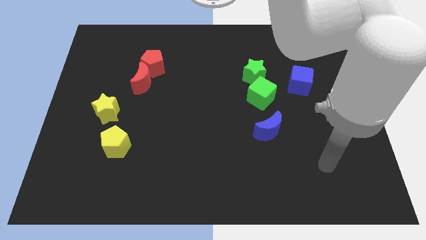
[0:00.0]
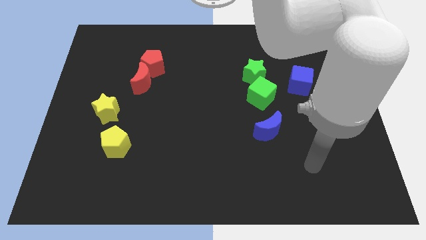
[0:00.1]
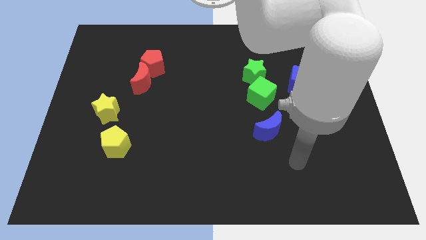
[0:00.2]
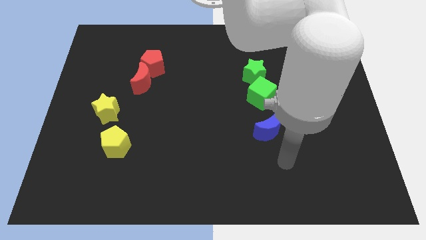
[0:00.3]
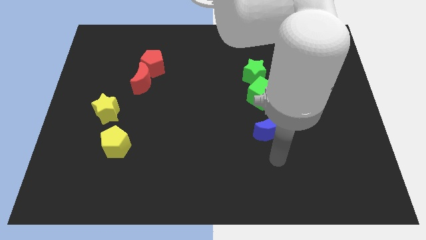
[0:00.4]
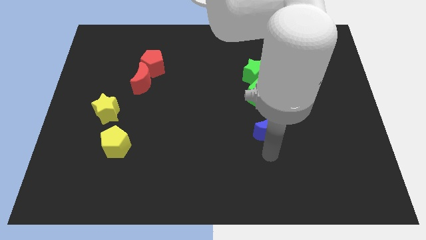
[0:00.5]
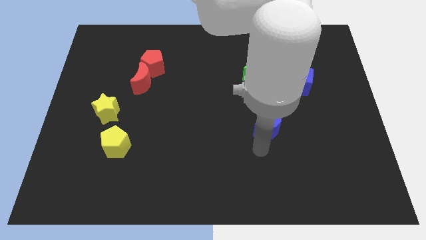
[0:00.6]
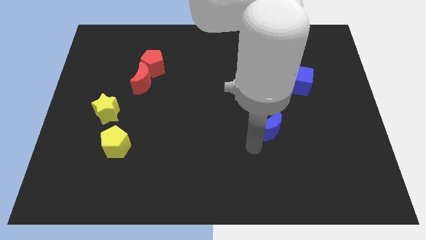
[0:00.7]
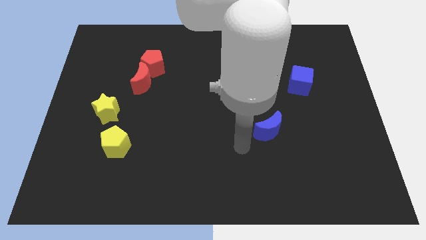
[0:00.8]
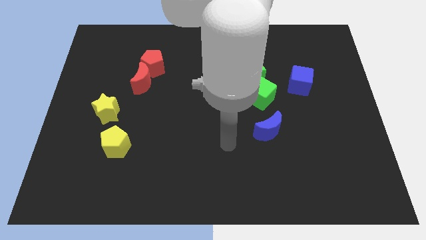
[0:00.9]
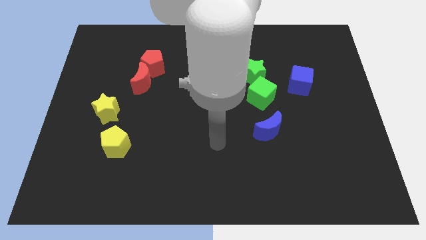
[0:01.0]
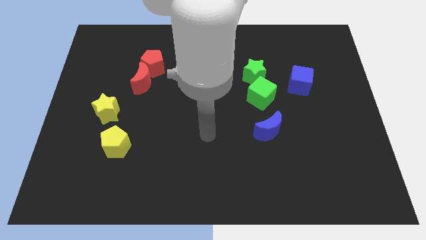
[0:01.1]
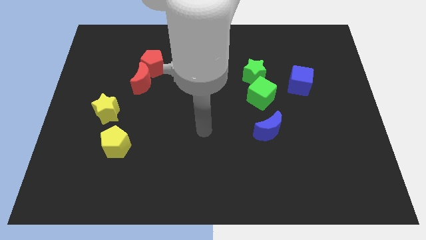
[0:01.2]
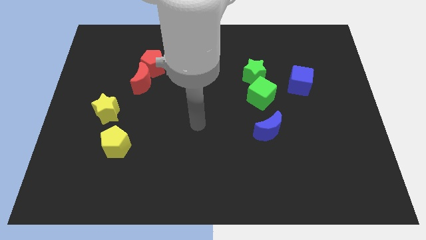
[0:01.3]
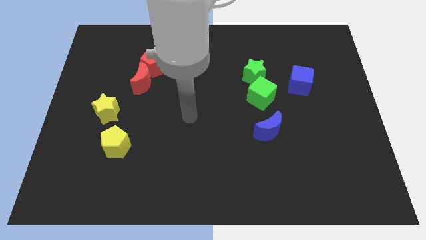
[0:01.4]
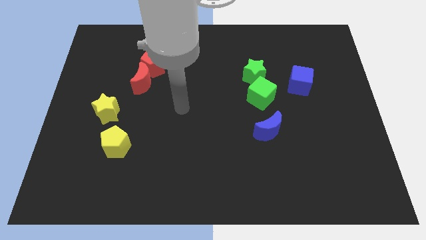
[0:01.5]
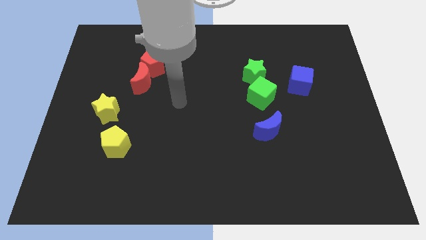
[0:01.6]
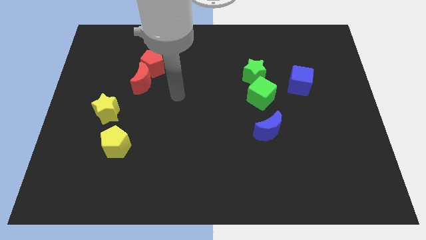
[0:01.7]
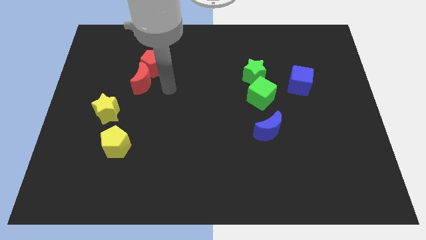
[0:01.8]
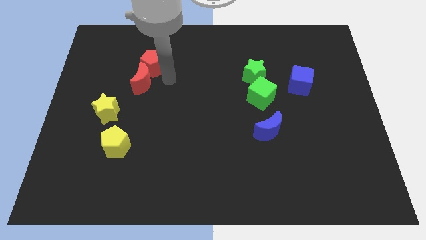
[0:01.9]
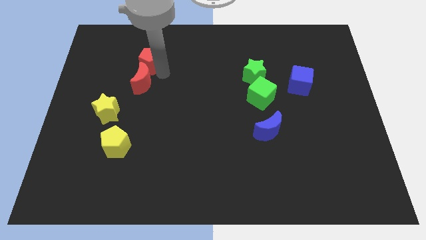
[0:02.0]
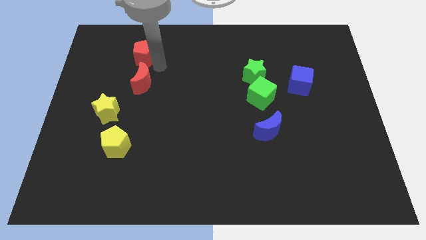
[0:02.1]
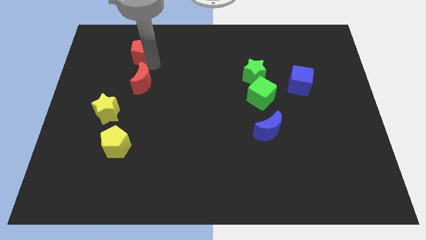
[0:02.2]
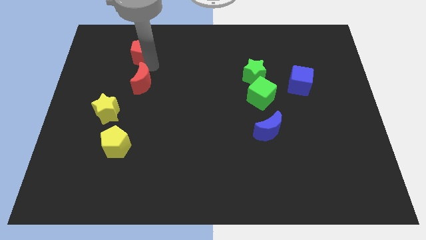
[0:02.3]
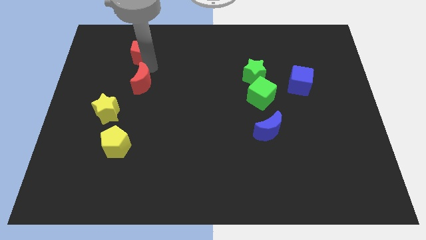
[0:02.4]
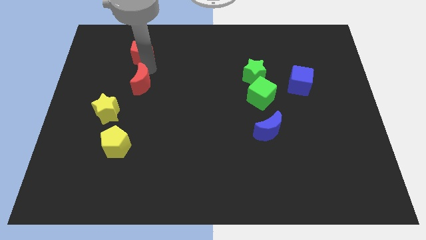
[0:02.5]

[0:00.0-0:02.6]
separate the red moon from the red pentagon

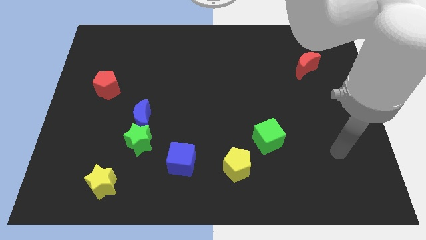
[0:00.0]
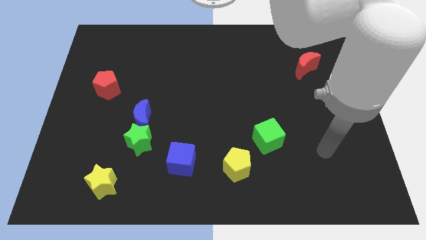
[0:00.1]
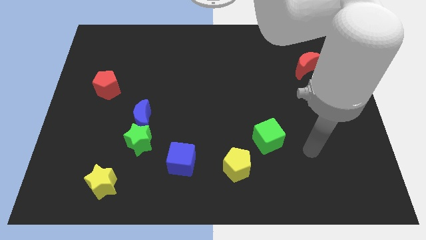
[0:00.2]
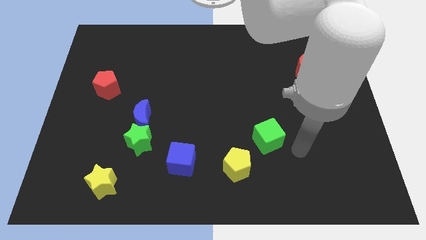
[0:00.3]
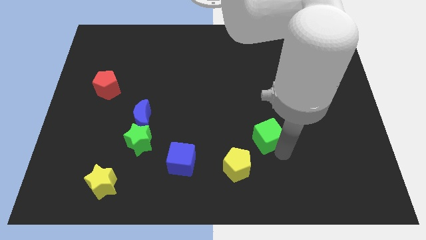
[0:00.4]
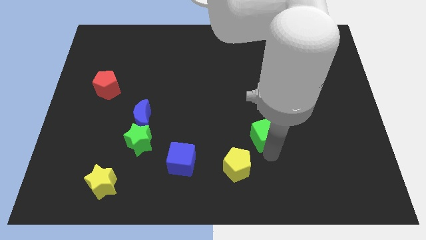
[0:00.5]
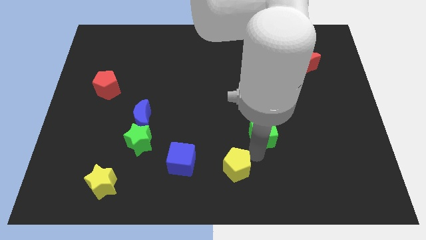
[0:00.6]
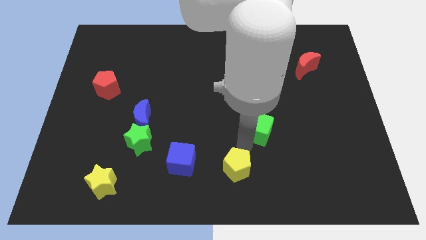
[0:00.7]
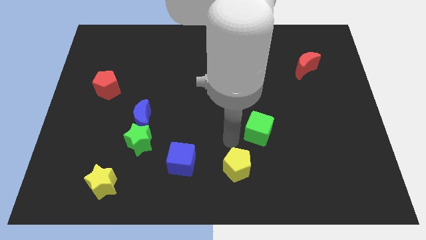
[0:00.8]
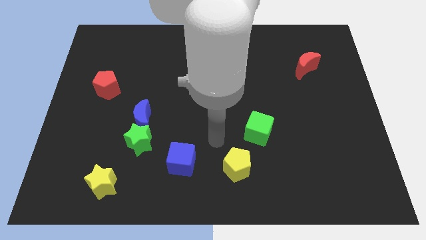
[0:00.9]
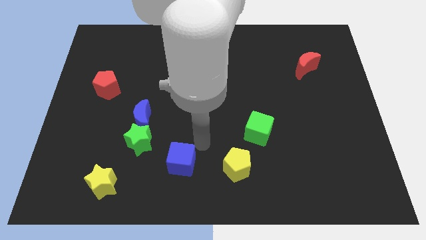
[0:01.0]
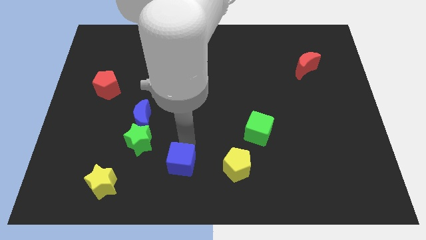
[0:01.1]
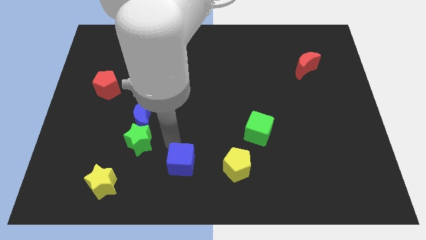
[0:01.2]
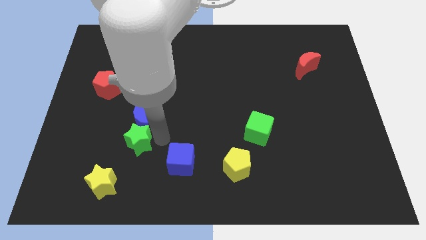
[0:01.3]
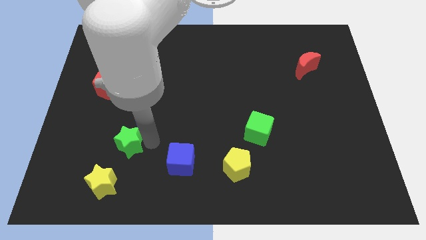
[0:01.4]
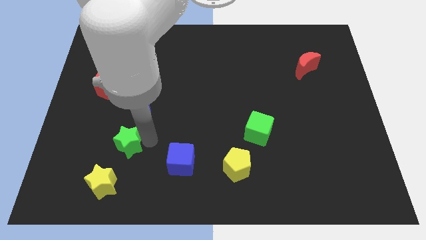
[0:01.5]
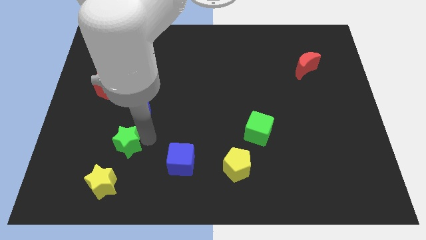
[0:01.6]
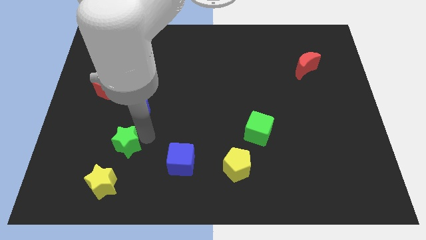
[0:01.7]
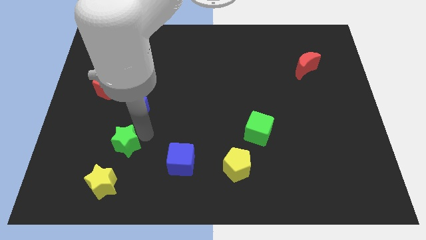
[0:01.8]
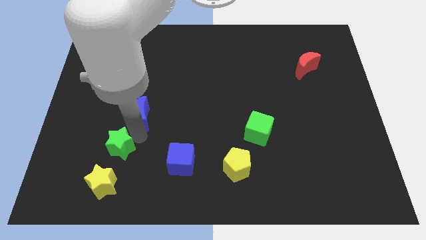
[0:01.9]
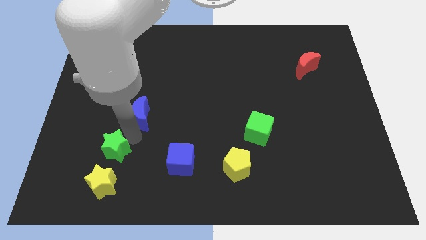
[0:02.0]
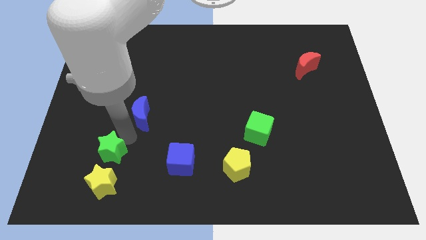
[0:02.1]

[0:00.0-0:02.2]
move the blue moon away from the green star

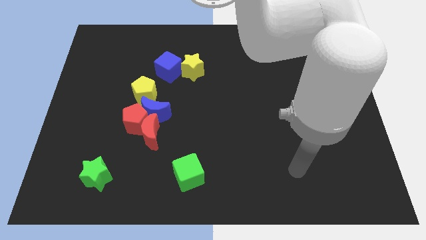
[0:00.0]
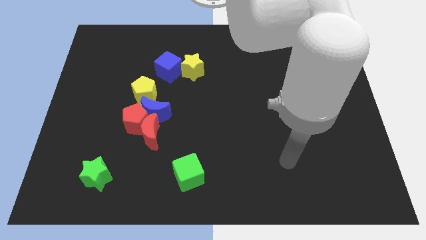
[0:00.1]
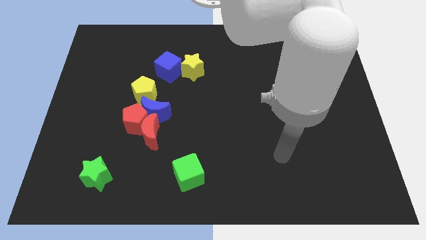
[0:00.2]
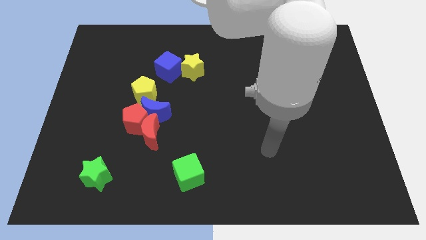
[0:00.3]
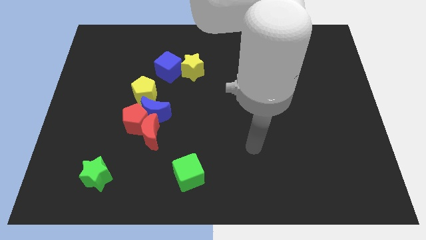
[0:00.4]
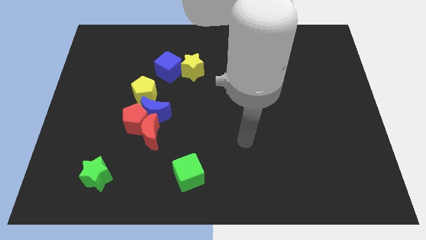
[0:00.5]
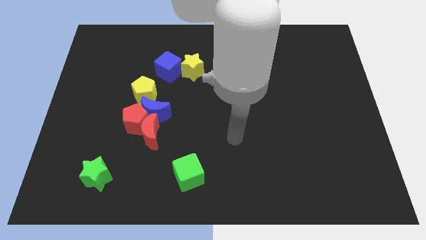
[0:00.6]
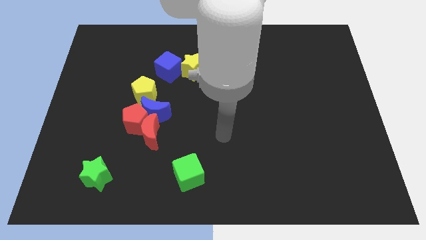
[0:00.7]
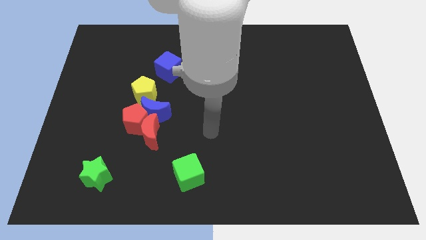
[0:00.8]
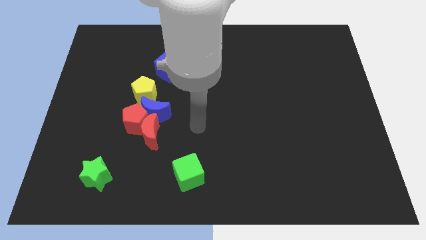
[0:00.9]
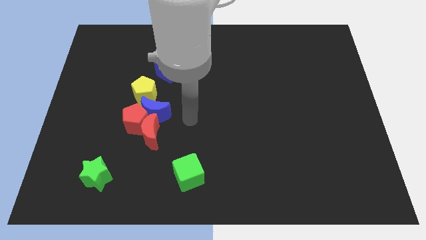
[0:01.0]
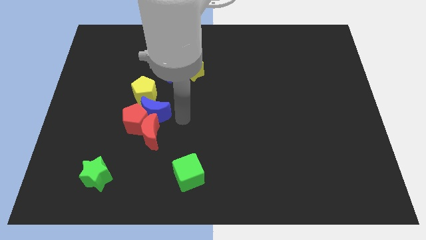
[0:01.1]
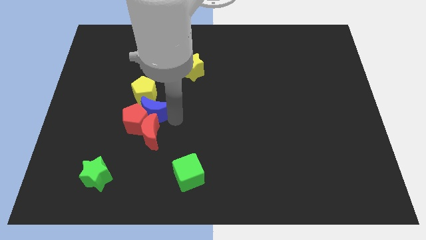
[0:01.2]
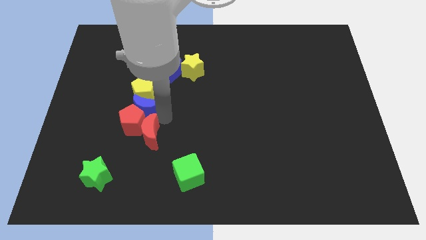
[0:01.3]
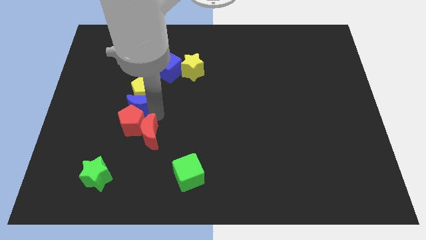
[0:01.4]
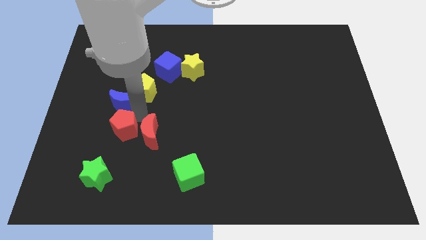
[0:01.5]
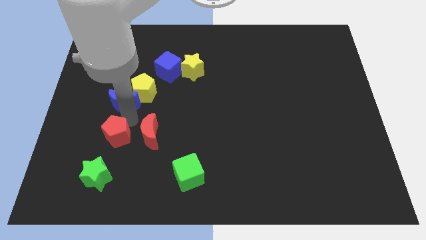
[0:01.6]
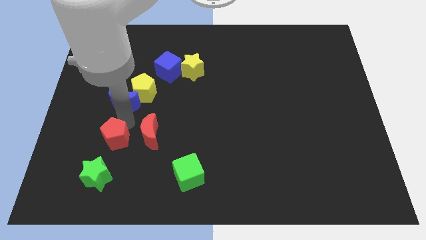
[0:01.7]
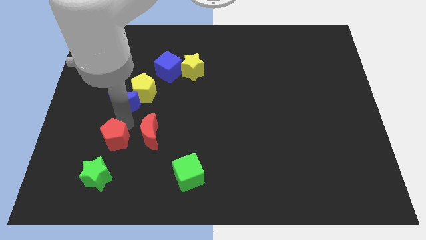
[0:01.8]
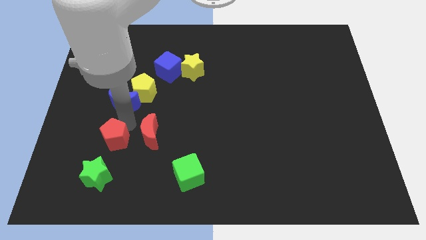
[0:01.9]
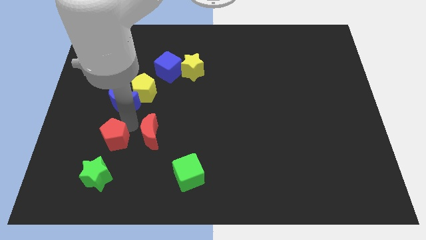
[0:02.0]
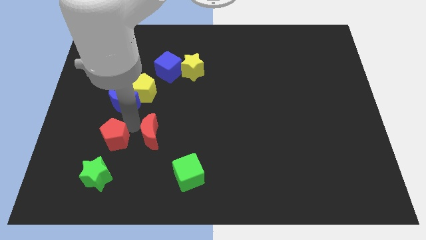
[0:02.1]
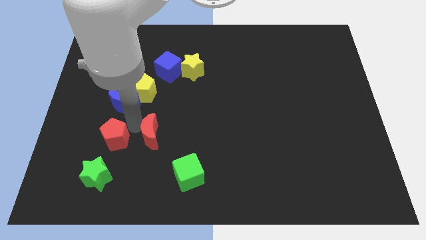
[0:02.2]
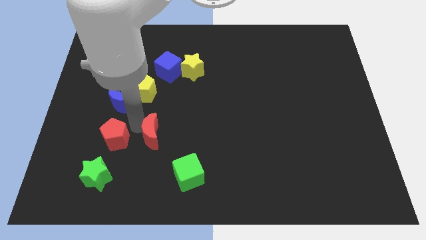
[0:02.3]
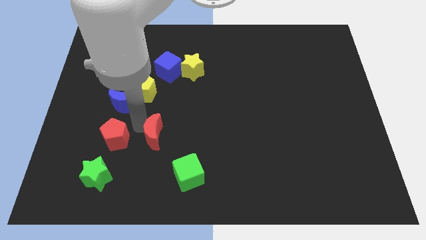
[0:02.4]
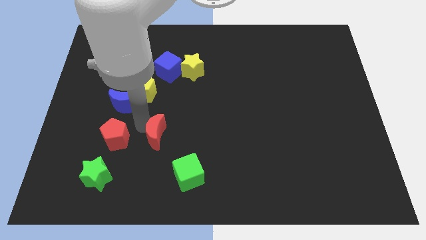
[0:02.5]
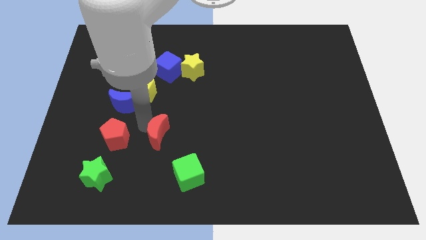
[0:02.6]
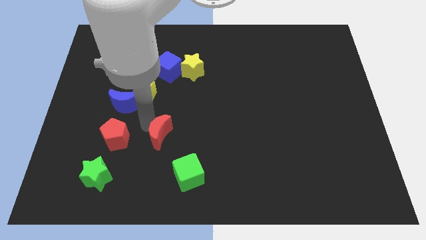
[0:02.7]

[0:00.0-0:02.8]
pull the red moon apart from the red pentagon and blue moon

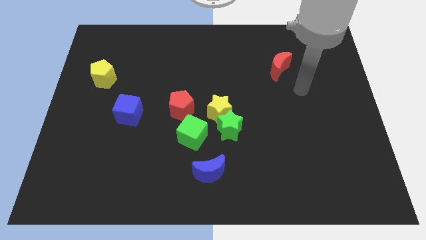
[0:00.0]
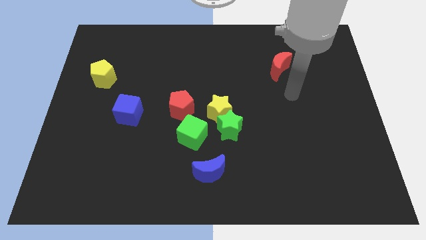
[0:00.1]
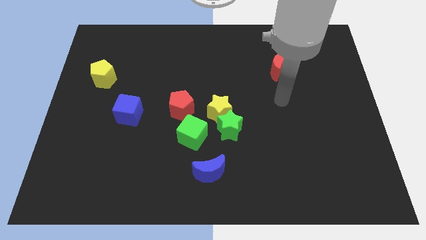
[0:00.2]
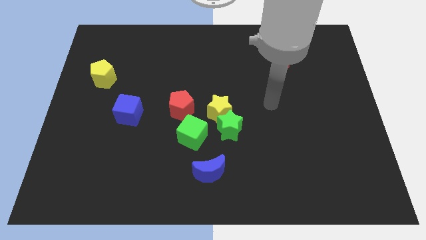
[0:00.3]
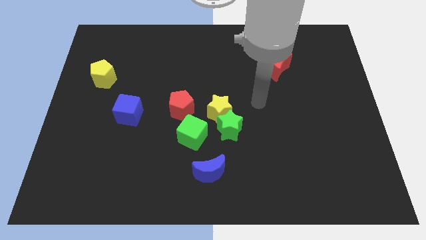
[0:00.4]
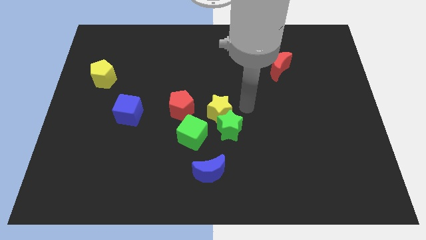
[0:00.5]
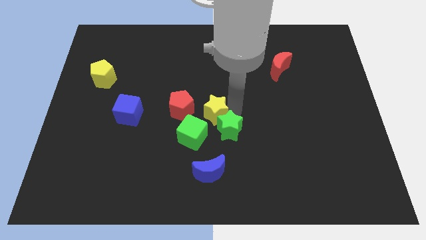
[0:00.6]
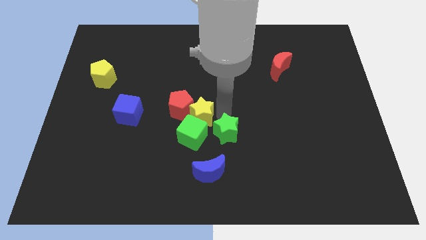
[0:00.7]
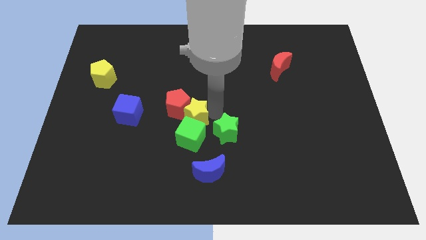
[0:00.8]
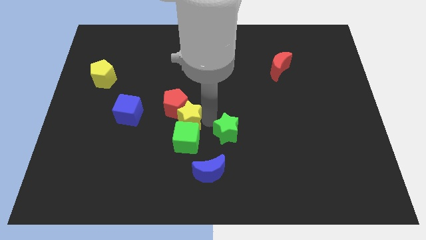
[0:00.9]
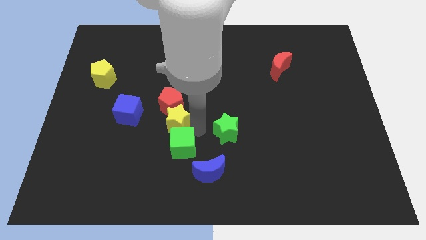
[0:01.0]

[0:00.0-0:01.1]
pull the green star apart from the yellow star and green cube

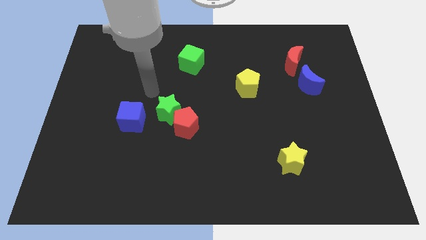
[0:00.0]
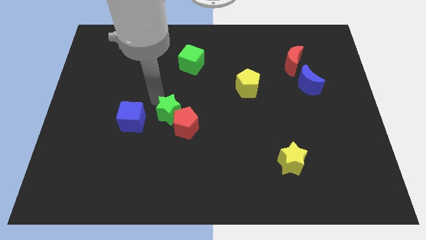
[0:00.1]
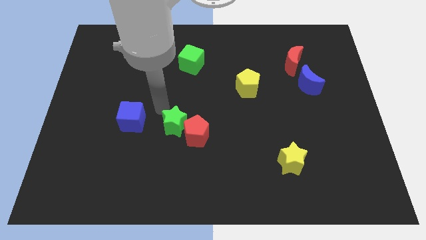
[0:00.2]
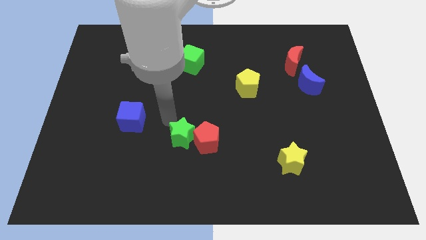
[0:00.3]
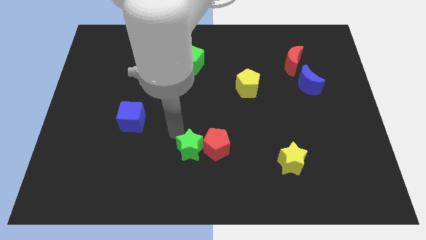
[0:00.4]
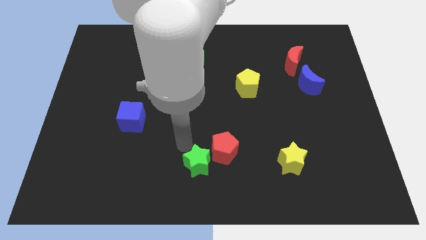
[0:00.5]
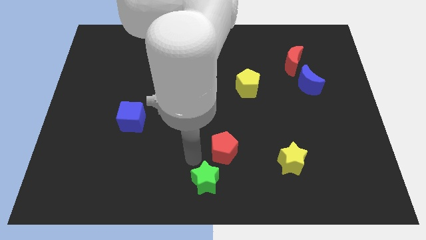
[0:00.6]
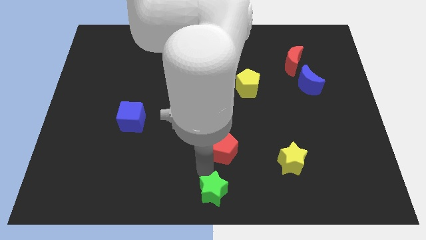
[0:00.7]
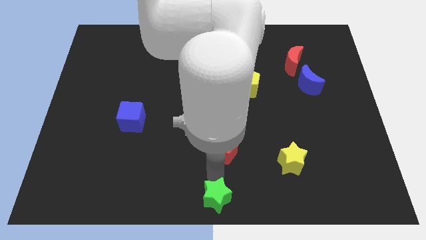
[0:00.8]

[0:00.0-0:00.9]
move the red pentagon away from the green star
